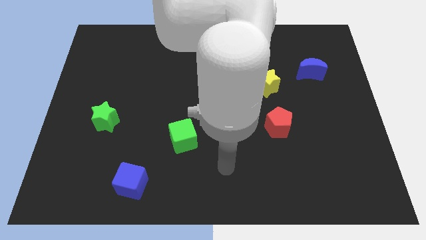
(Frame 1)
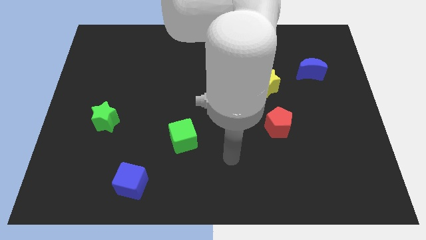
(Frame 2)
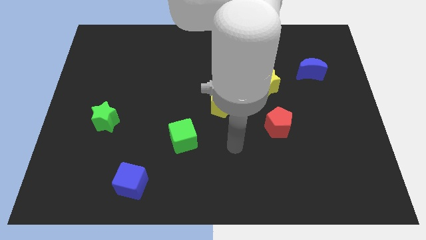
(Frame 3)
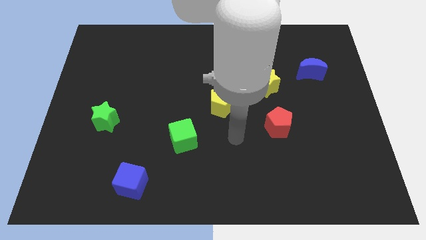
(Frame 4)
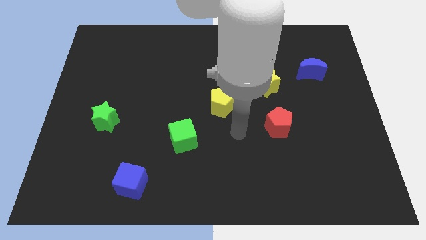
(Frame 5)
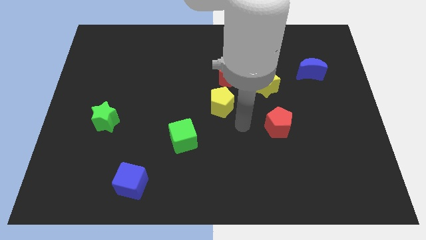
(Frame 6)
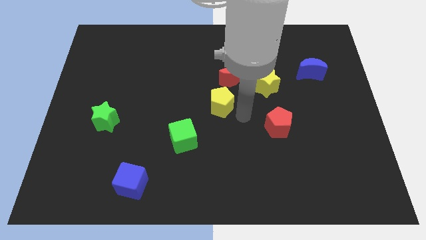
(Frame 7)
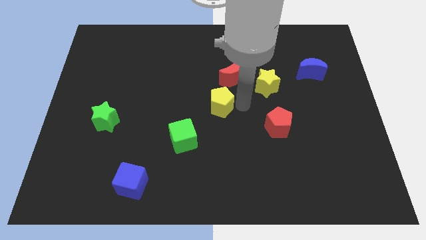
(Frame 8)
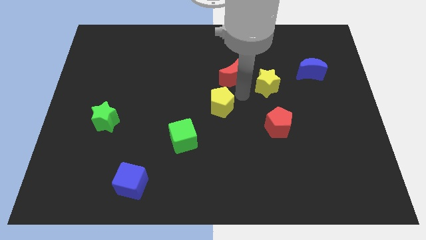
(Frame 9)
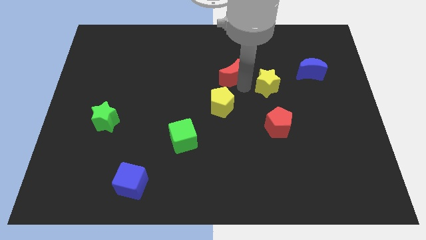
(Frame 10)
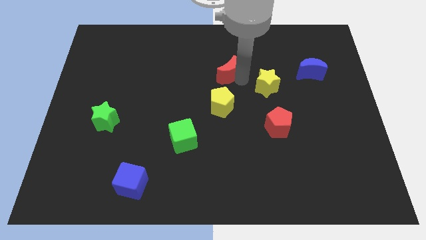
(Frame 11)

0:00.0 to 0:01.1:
separate the yellow star from the red moon

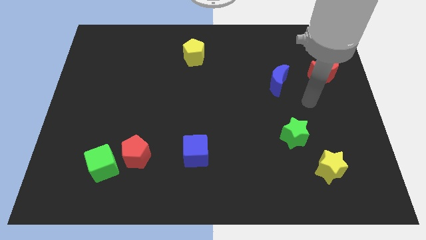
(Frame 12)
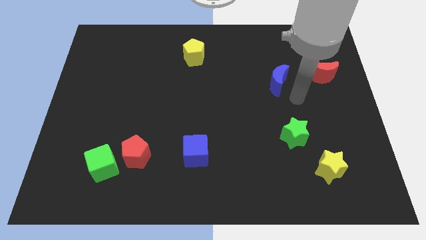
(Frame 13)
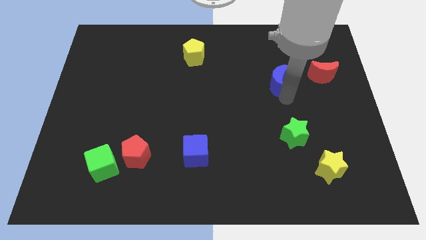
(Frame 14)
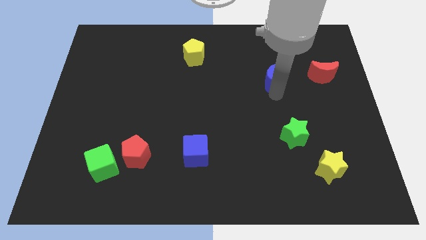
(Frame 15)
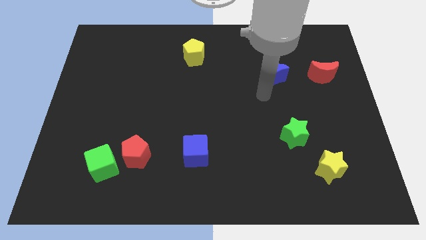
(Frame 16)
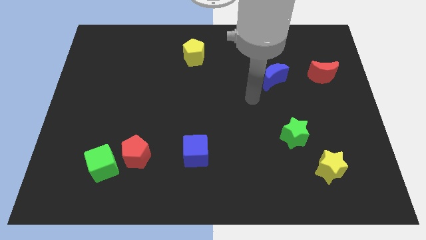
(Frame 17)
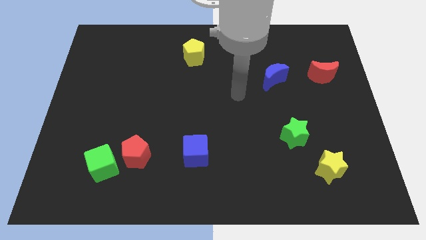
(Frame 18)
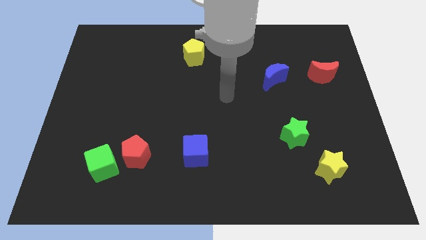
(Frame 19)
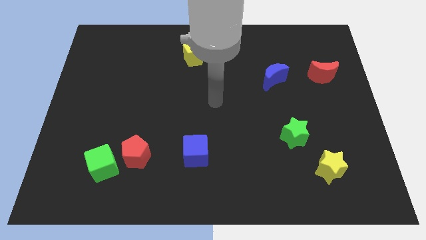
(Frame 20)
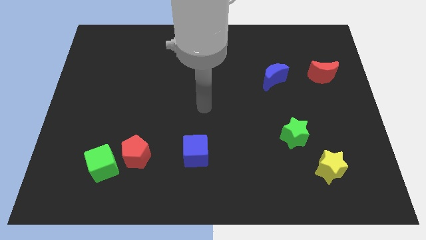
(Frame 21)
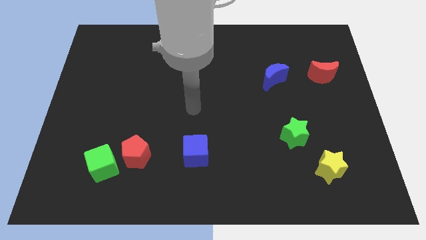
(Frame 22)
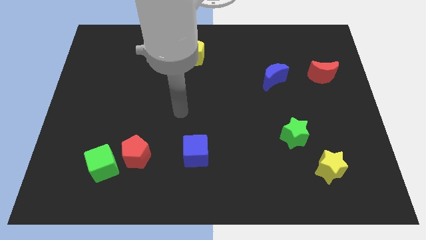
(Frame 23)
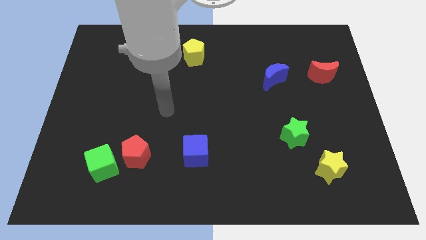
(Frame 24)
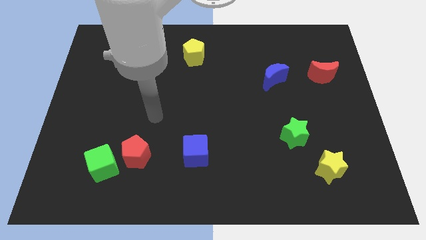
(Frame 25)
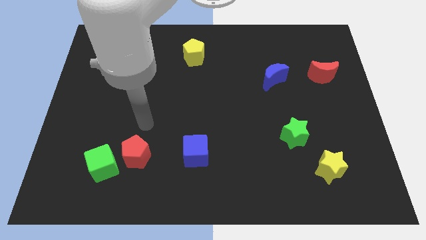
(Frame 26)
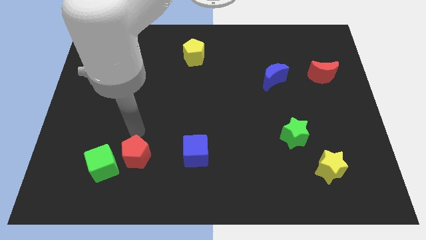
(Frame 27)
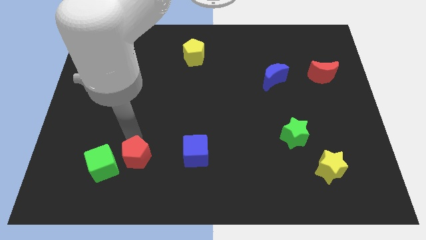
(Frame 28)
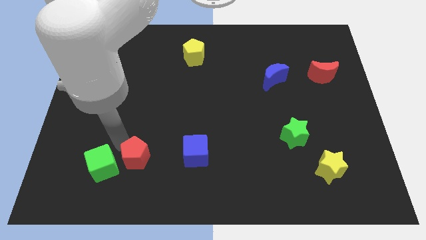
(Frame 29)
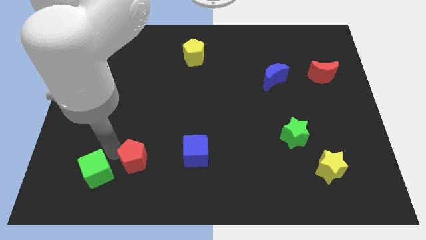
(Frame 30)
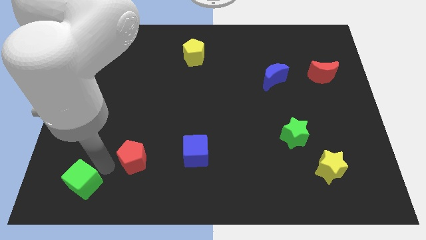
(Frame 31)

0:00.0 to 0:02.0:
move the red pentagon away from the green cube

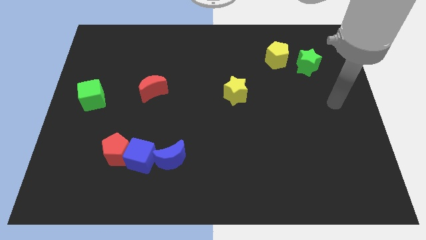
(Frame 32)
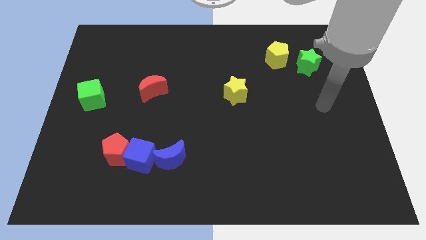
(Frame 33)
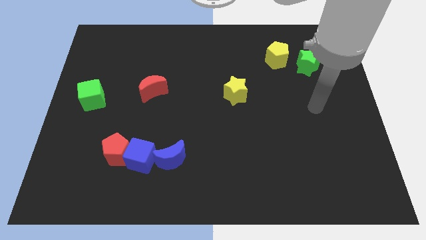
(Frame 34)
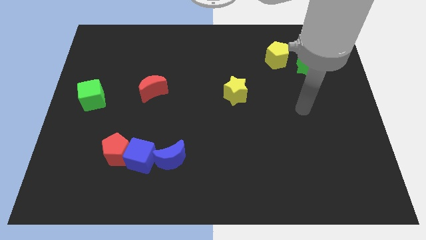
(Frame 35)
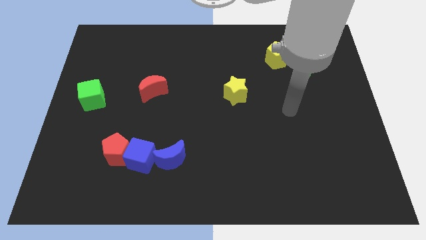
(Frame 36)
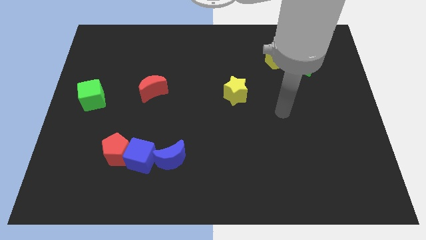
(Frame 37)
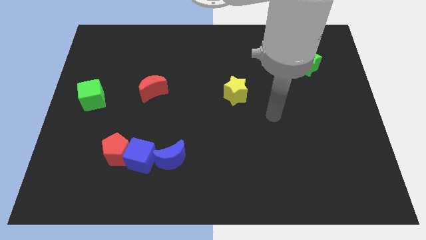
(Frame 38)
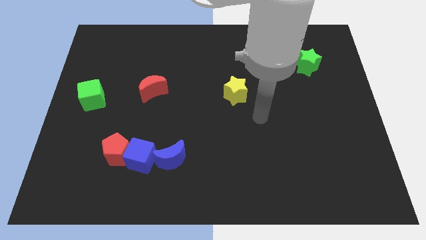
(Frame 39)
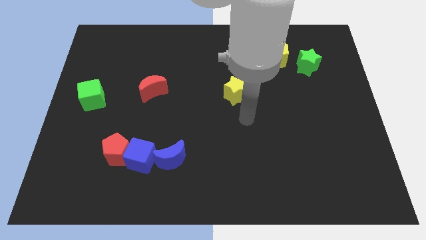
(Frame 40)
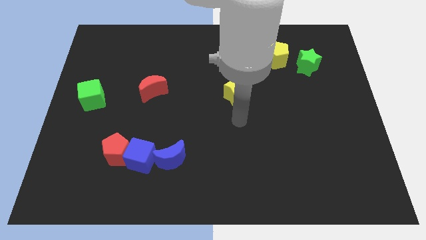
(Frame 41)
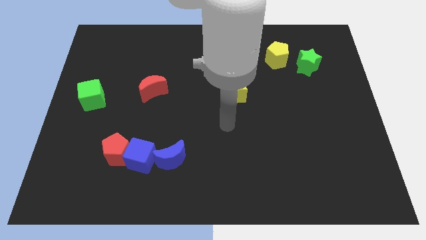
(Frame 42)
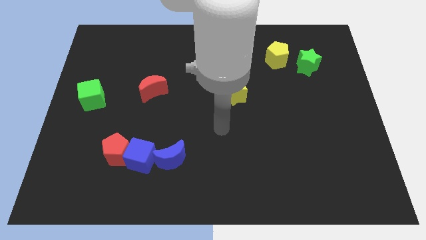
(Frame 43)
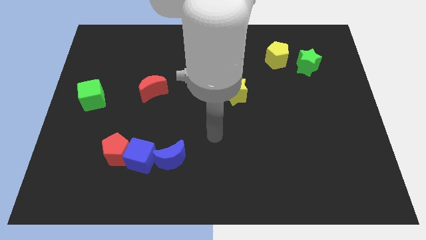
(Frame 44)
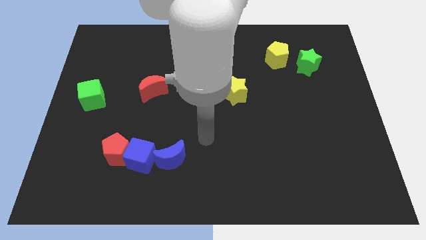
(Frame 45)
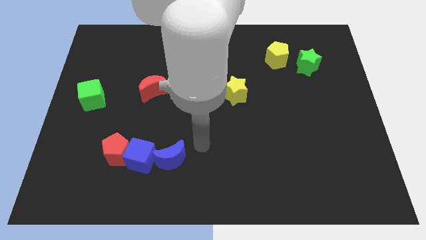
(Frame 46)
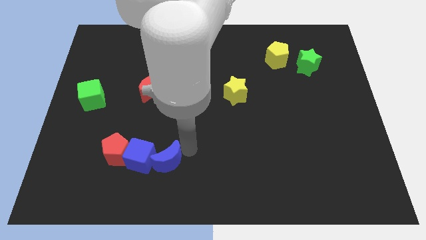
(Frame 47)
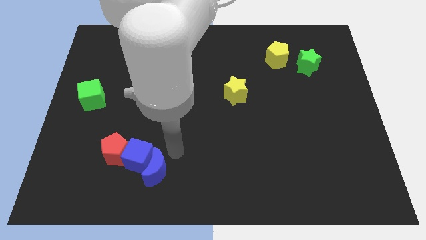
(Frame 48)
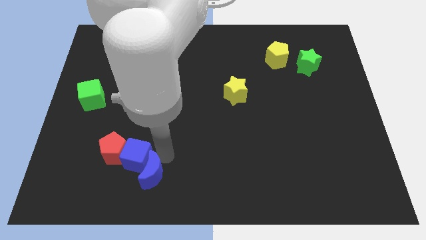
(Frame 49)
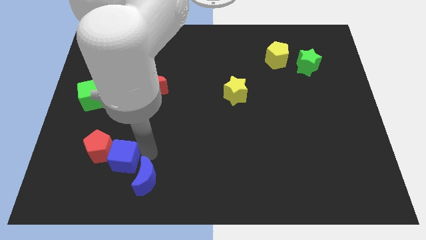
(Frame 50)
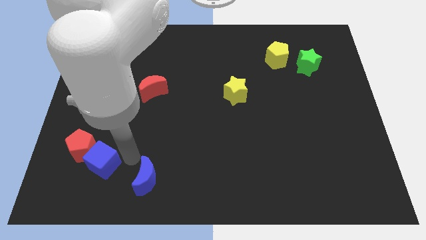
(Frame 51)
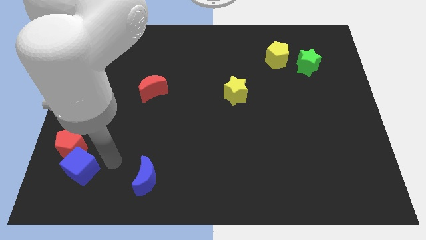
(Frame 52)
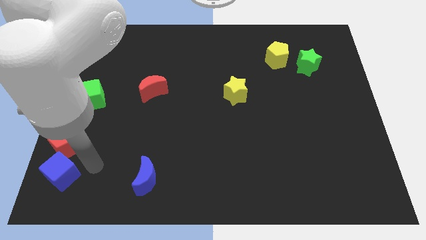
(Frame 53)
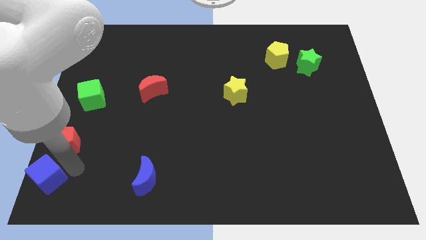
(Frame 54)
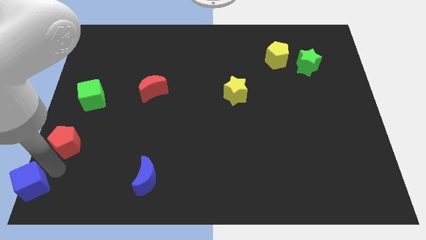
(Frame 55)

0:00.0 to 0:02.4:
separate the red pentagon from the blue cube

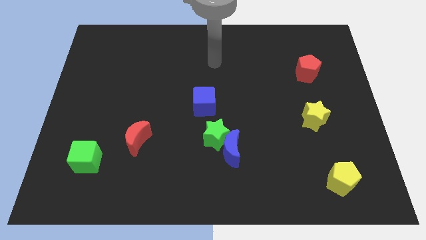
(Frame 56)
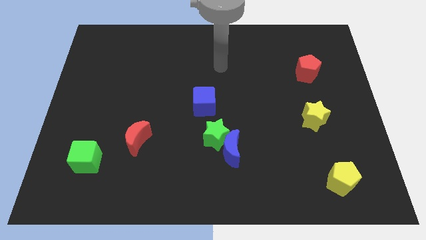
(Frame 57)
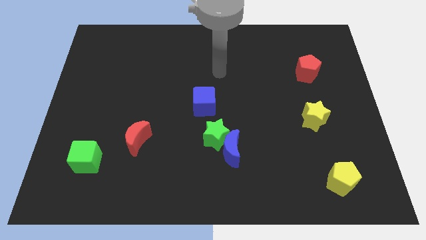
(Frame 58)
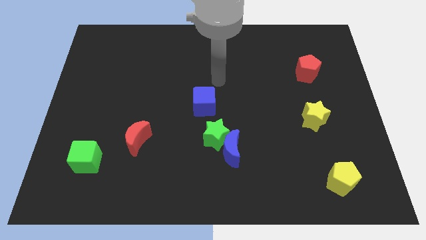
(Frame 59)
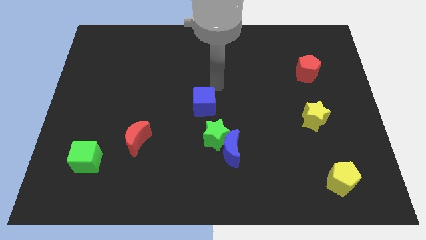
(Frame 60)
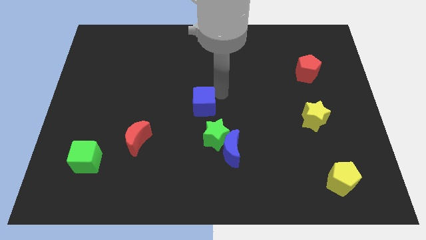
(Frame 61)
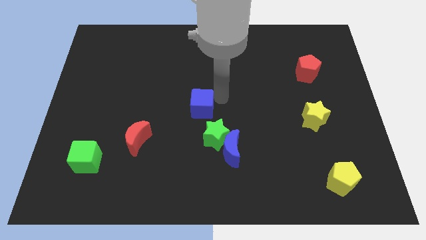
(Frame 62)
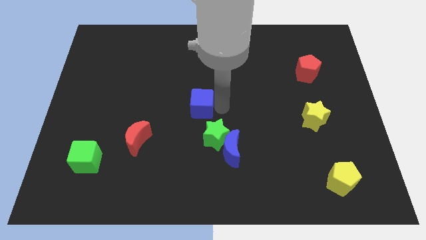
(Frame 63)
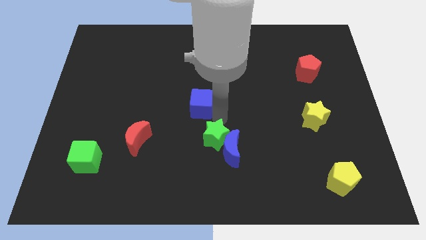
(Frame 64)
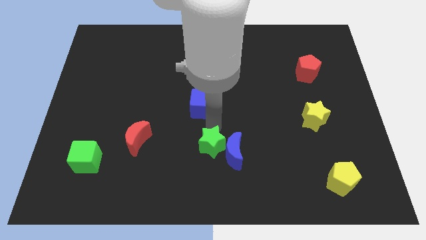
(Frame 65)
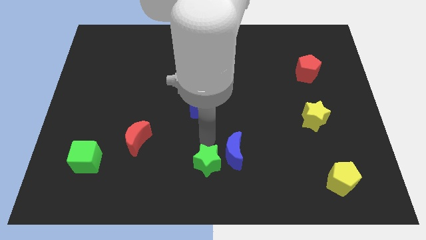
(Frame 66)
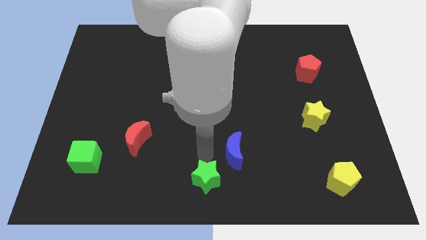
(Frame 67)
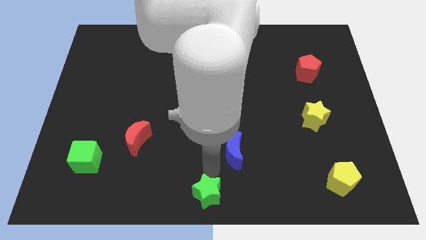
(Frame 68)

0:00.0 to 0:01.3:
pull the blue moon apart from the green star

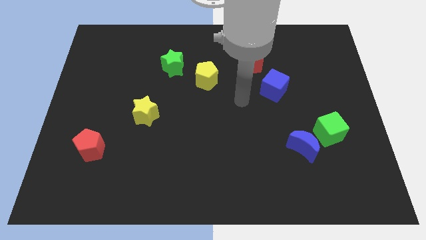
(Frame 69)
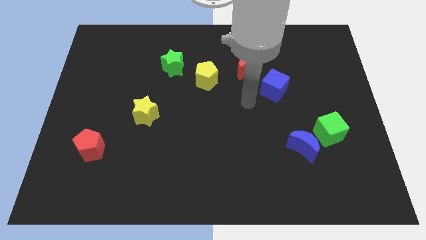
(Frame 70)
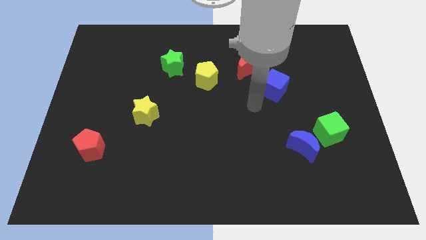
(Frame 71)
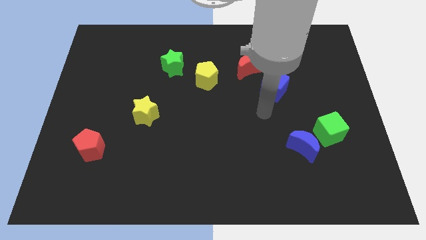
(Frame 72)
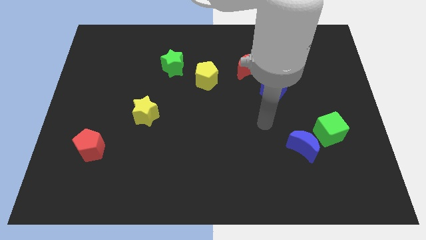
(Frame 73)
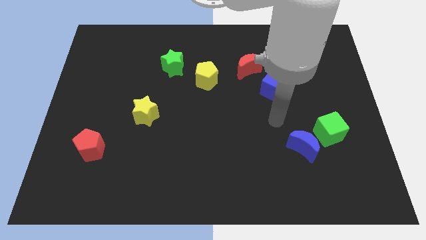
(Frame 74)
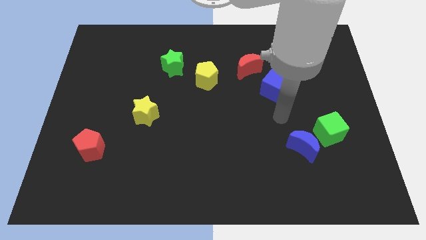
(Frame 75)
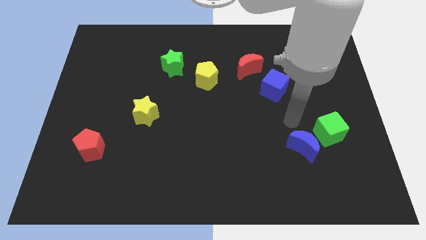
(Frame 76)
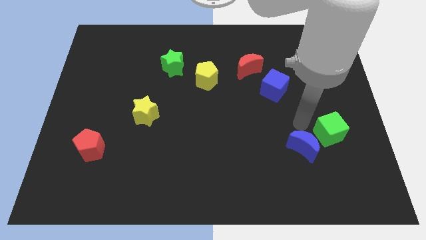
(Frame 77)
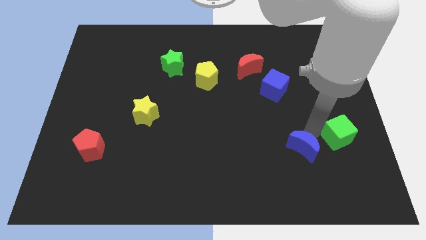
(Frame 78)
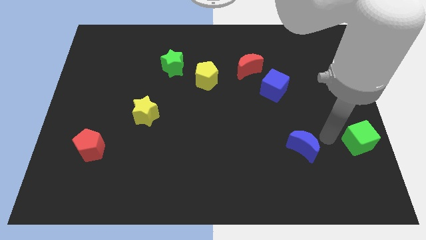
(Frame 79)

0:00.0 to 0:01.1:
pull the blue moon apart from the green cube

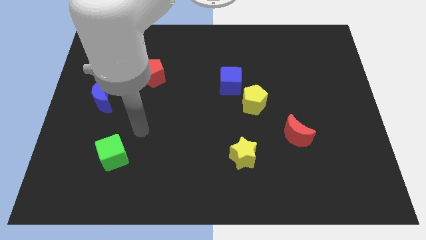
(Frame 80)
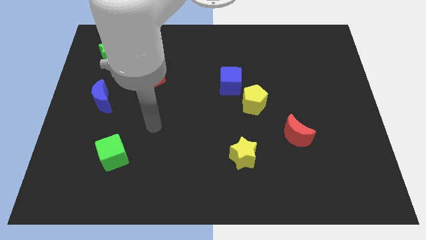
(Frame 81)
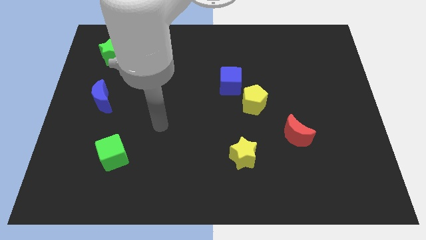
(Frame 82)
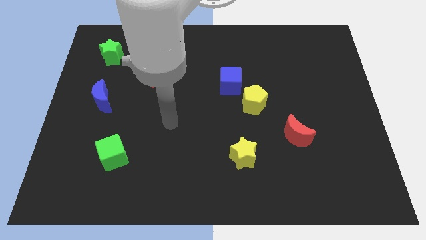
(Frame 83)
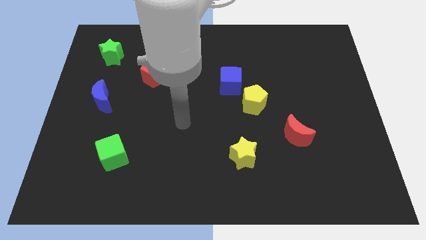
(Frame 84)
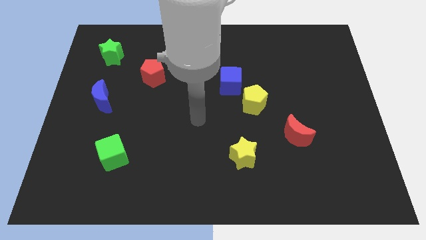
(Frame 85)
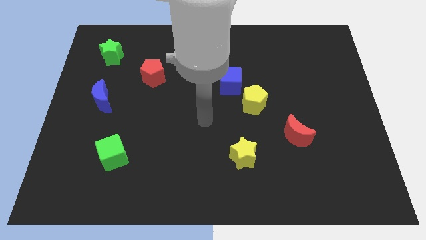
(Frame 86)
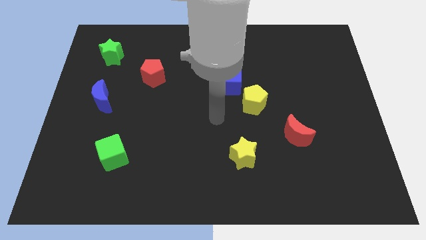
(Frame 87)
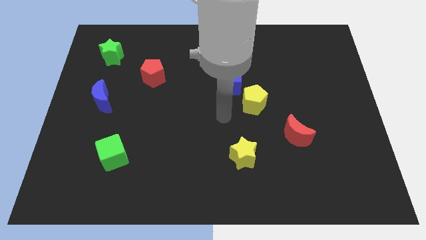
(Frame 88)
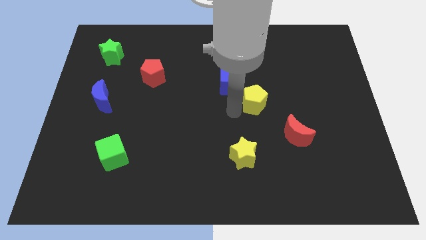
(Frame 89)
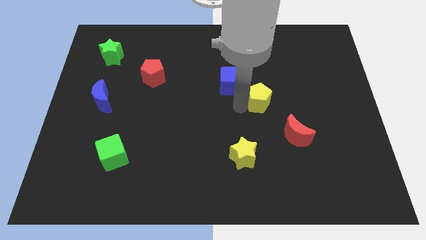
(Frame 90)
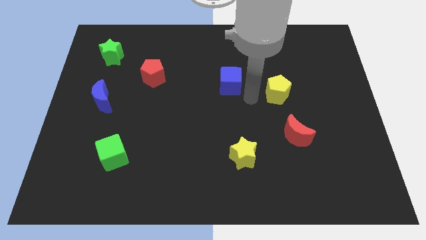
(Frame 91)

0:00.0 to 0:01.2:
separate the blue cube from the yellow pentagon

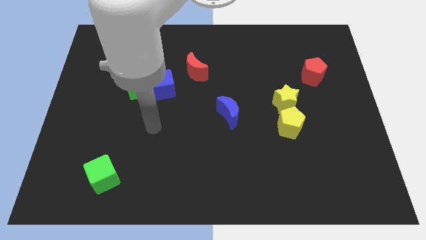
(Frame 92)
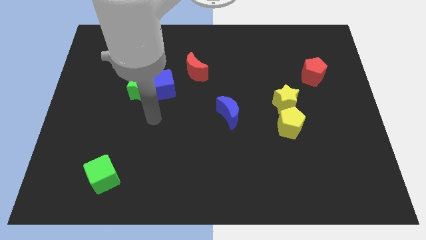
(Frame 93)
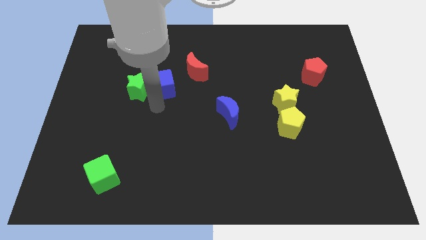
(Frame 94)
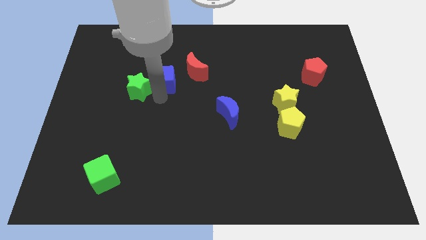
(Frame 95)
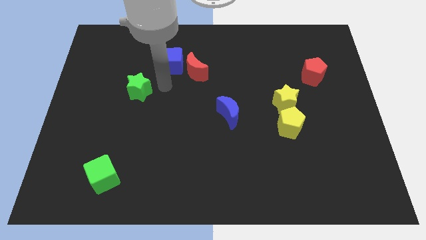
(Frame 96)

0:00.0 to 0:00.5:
move the green star away from the blue cube
